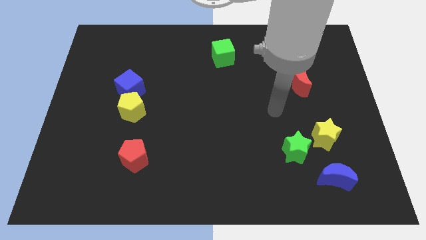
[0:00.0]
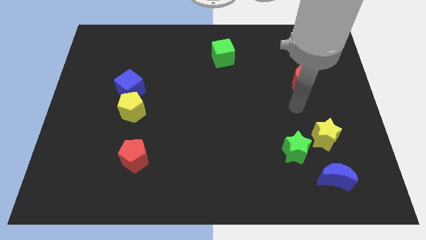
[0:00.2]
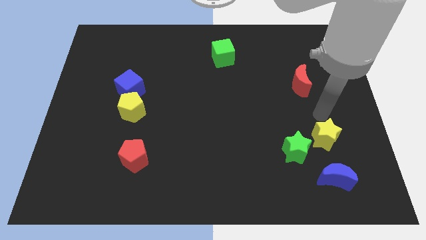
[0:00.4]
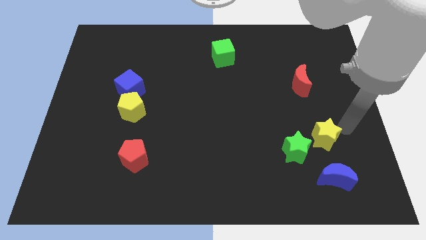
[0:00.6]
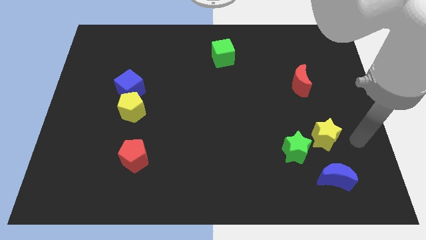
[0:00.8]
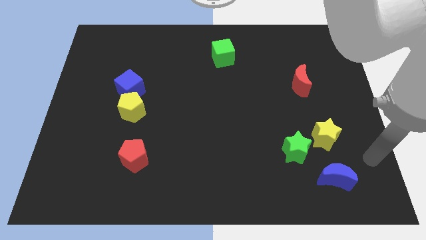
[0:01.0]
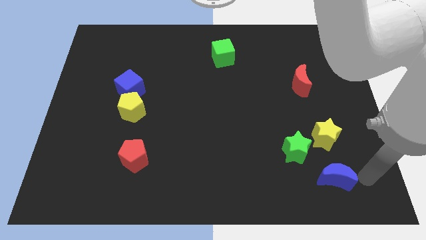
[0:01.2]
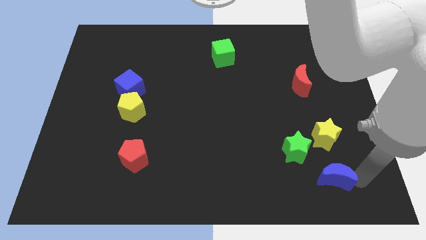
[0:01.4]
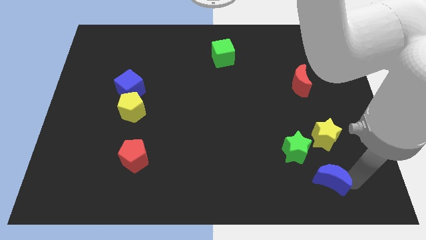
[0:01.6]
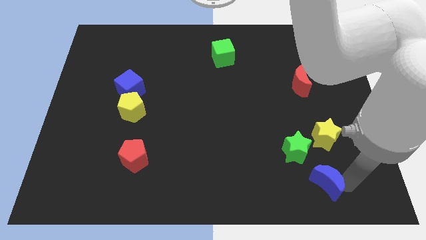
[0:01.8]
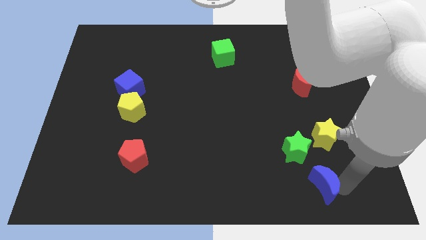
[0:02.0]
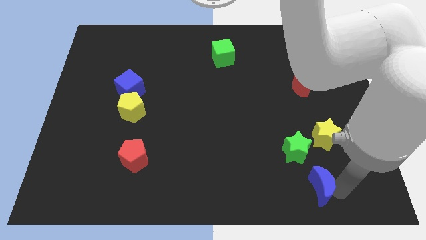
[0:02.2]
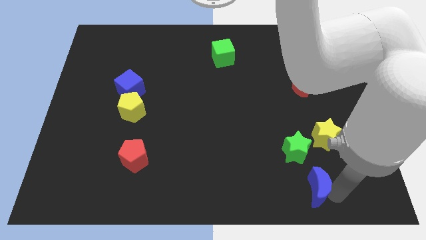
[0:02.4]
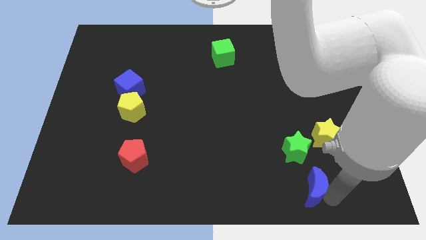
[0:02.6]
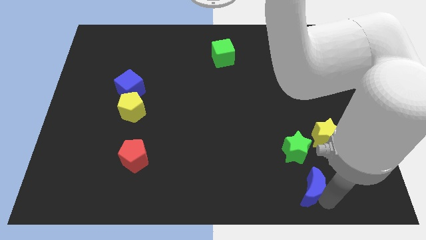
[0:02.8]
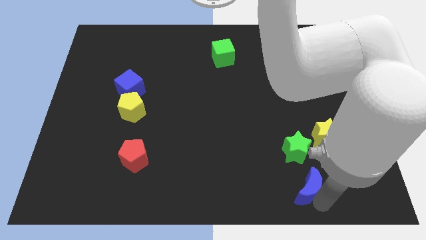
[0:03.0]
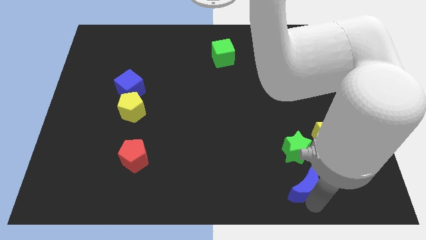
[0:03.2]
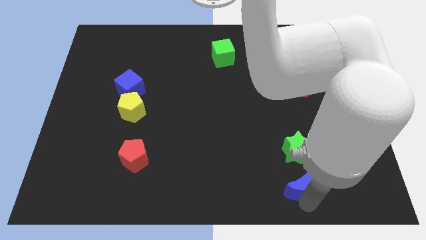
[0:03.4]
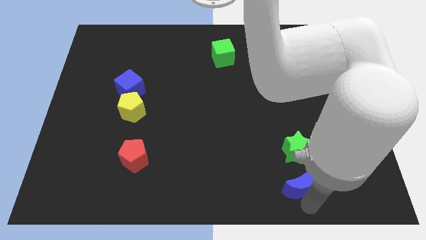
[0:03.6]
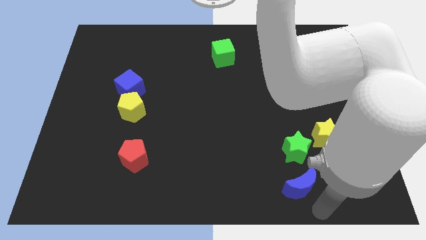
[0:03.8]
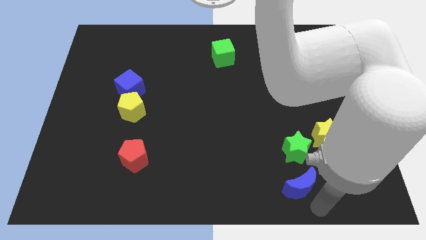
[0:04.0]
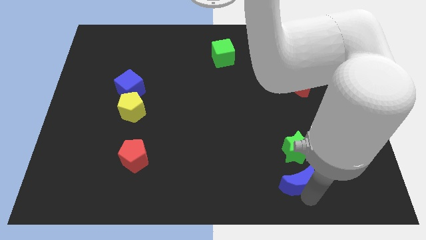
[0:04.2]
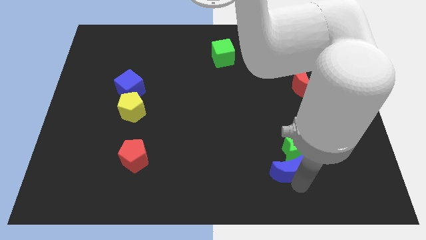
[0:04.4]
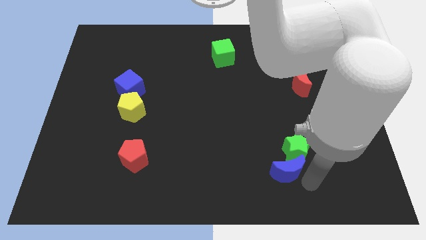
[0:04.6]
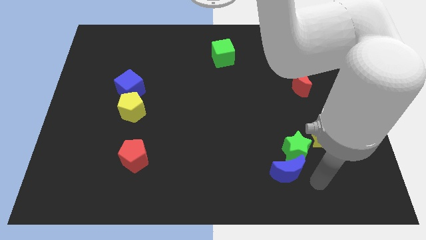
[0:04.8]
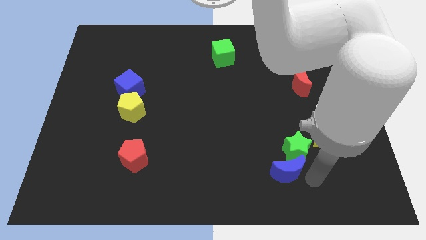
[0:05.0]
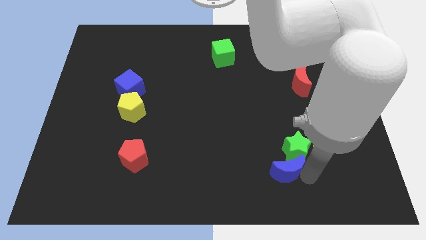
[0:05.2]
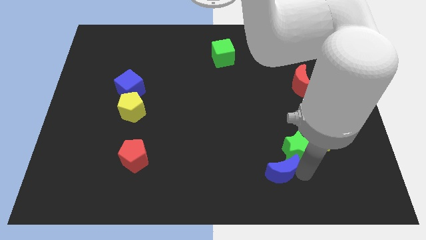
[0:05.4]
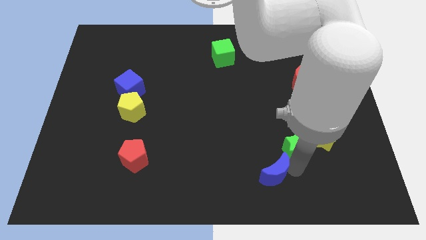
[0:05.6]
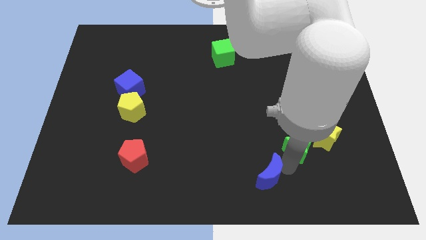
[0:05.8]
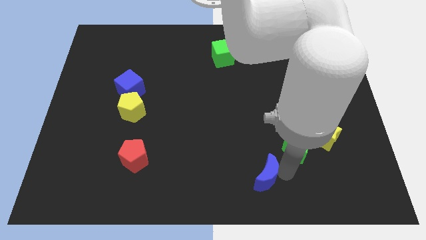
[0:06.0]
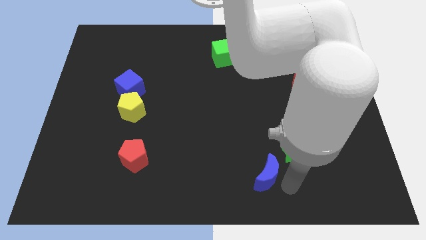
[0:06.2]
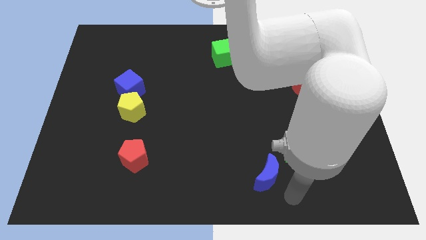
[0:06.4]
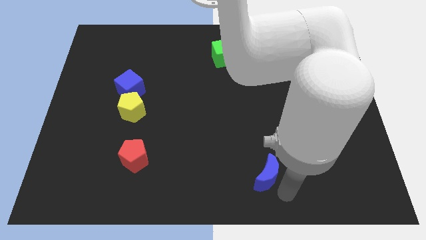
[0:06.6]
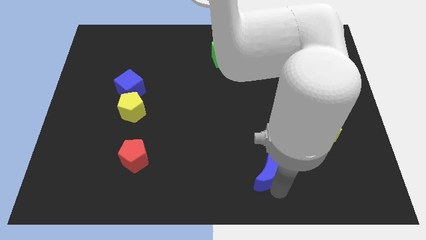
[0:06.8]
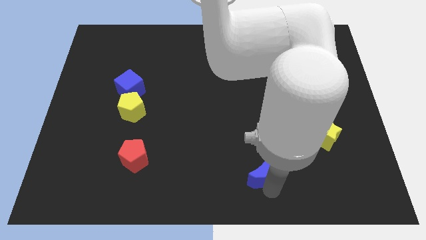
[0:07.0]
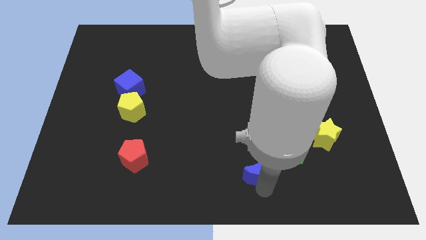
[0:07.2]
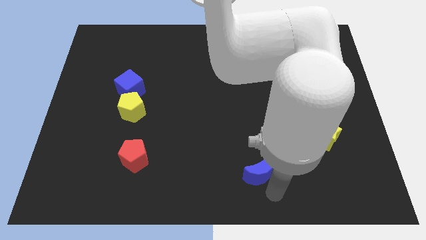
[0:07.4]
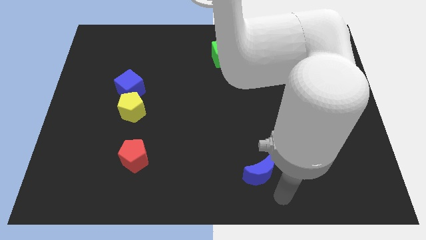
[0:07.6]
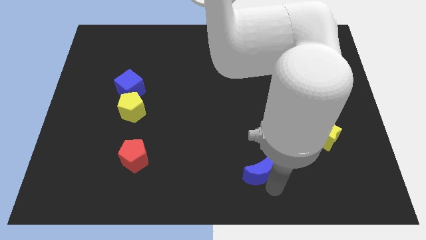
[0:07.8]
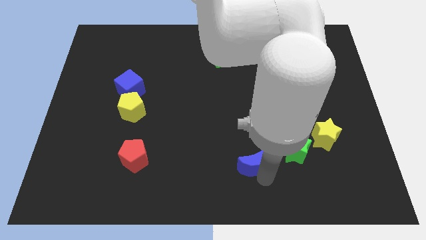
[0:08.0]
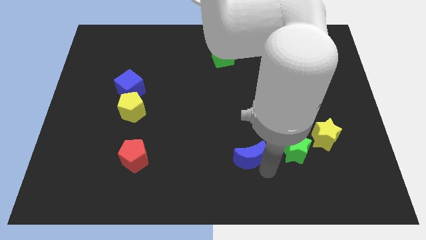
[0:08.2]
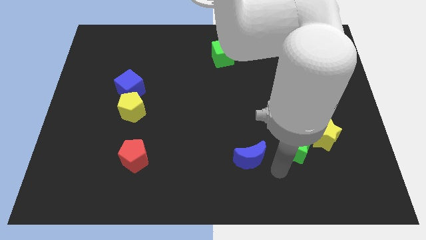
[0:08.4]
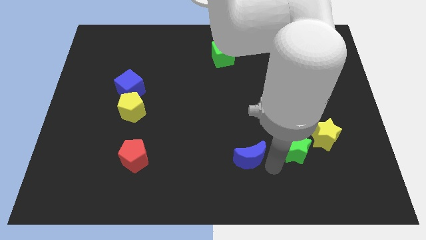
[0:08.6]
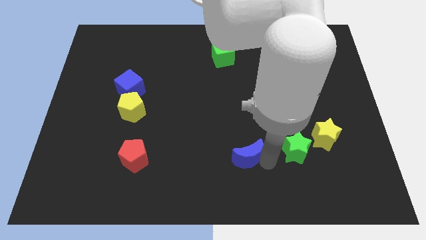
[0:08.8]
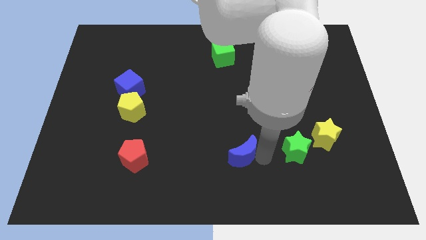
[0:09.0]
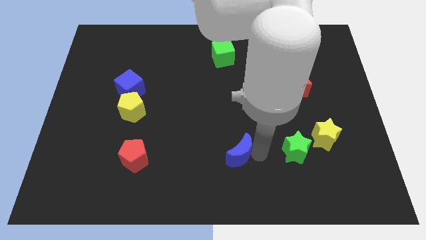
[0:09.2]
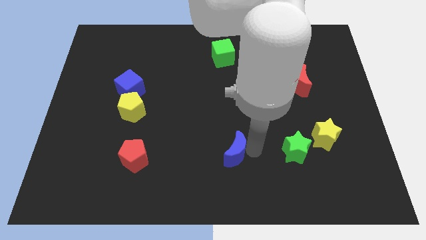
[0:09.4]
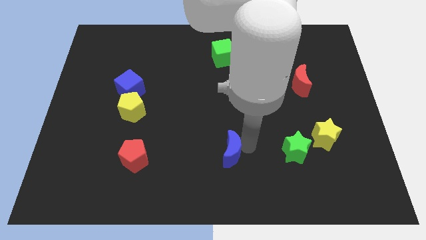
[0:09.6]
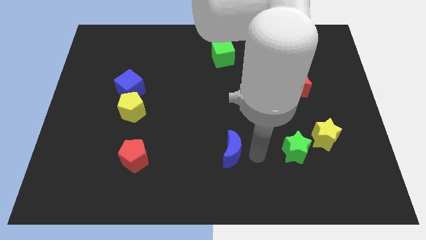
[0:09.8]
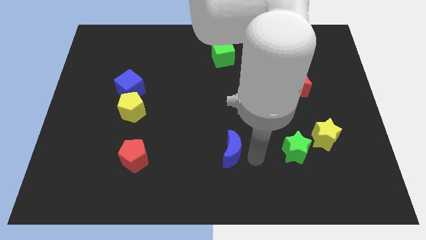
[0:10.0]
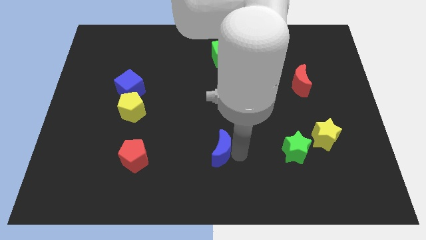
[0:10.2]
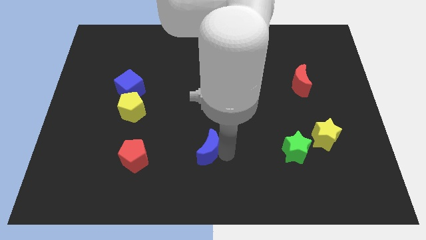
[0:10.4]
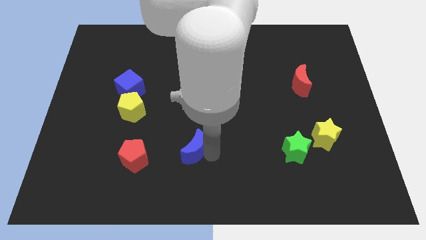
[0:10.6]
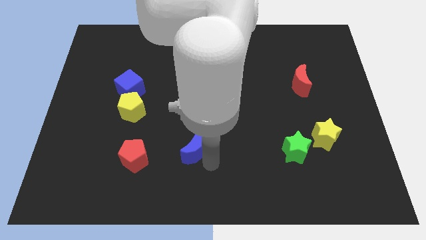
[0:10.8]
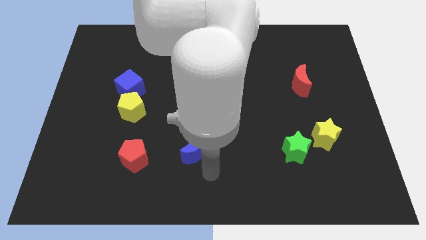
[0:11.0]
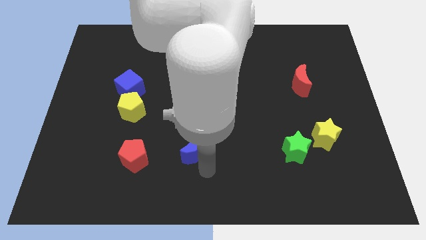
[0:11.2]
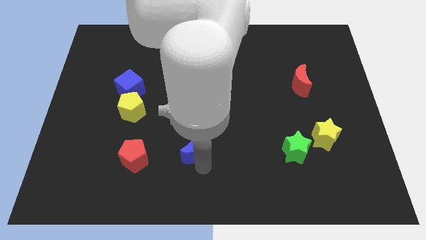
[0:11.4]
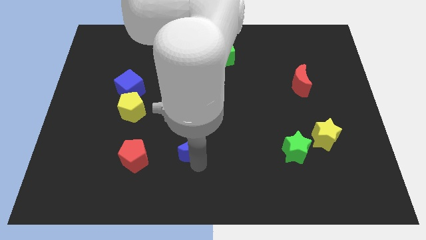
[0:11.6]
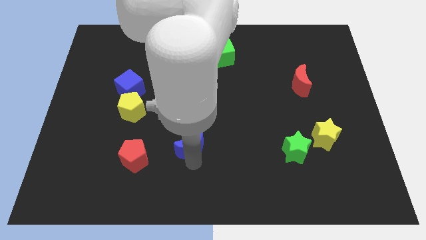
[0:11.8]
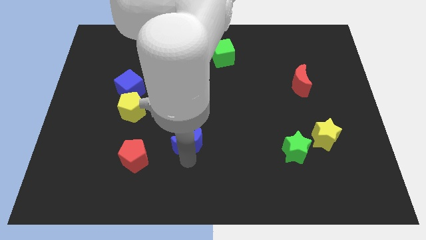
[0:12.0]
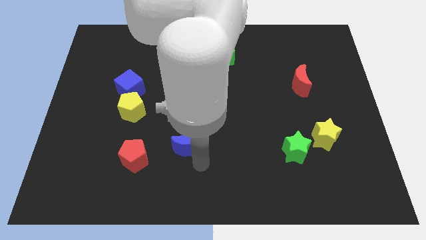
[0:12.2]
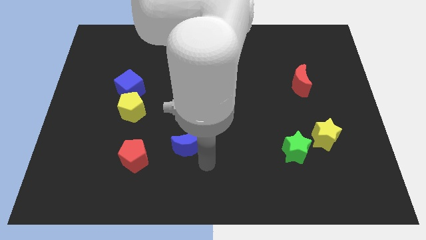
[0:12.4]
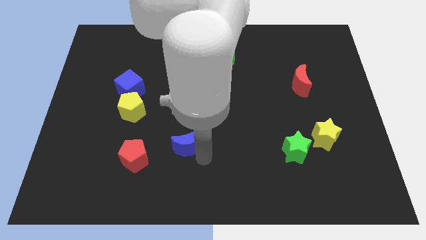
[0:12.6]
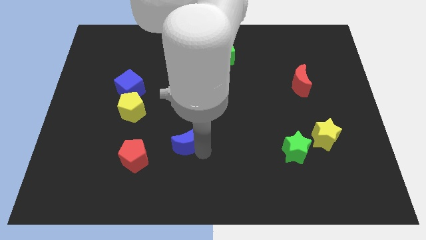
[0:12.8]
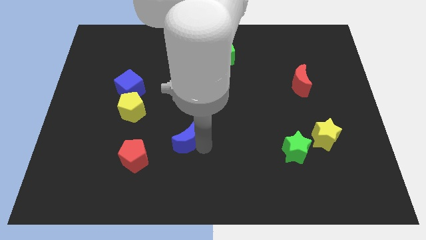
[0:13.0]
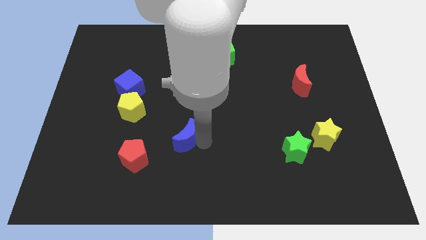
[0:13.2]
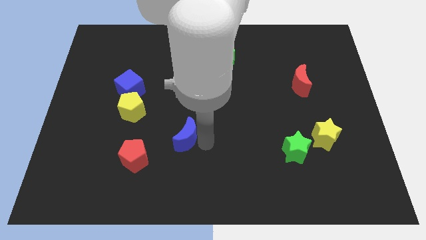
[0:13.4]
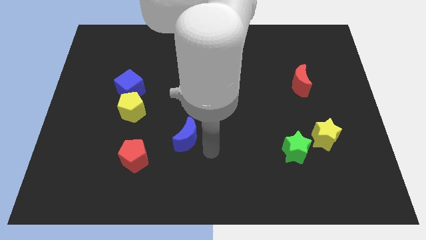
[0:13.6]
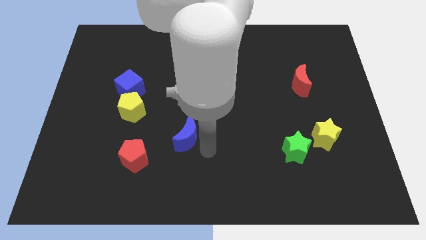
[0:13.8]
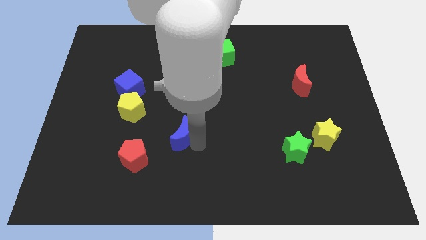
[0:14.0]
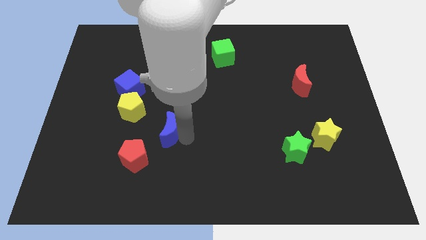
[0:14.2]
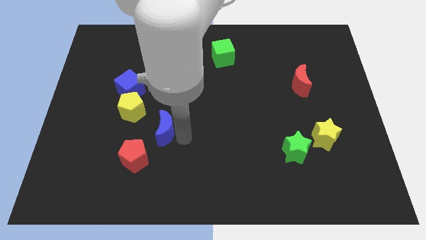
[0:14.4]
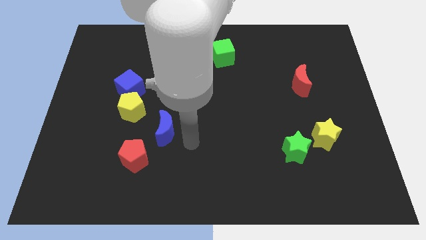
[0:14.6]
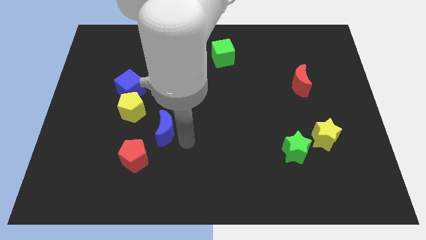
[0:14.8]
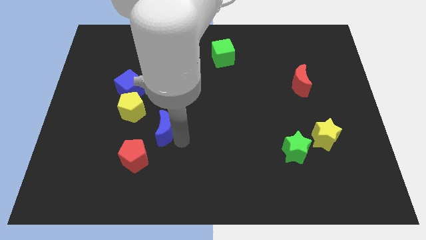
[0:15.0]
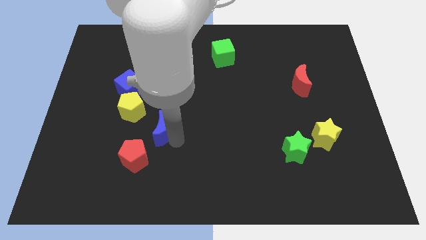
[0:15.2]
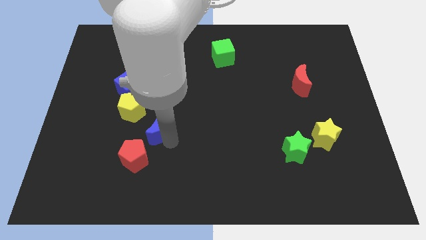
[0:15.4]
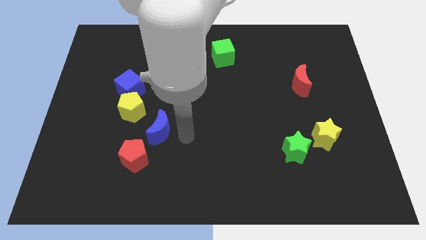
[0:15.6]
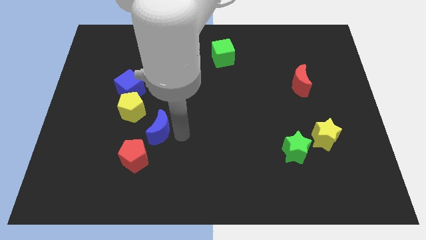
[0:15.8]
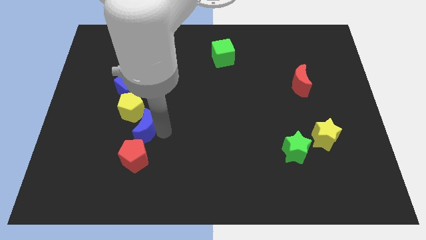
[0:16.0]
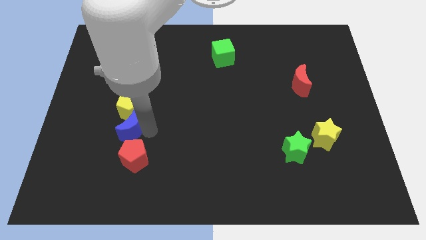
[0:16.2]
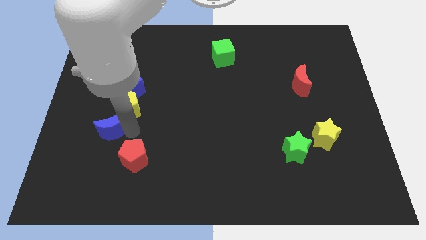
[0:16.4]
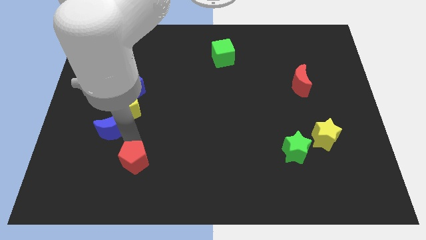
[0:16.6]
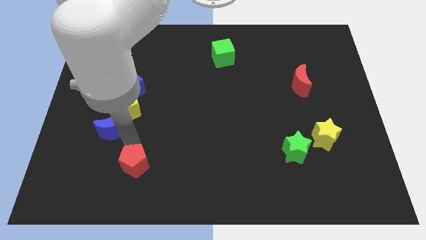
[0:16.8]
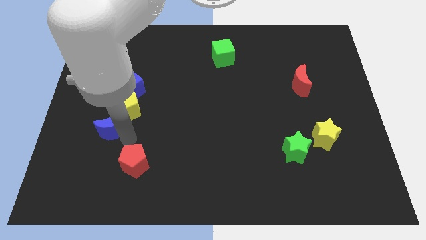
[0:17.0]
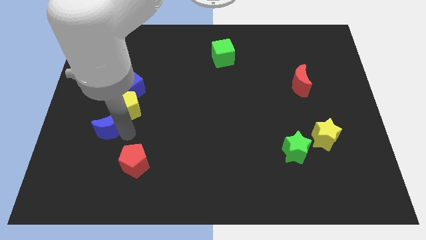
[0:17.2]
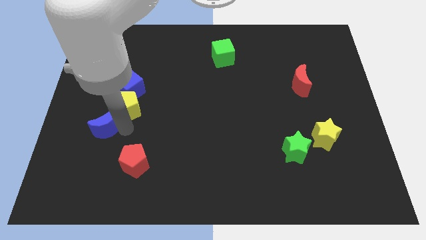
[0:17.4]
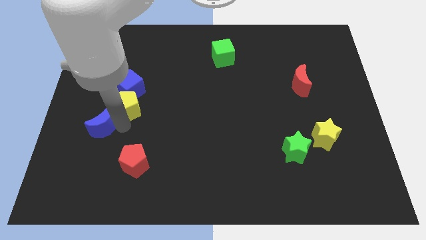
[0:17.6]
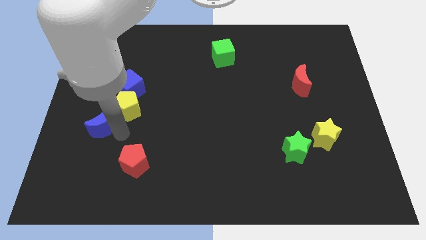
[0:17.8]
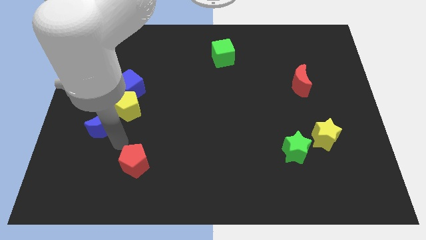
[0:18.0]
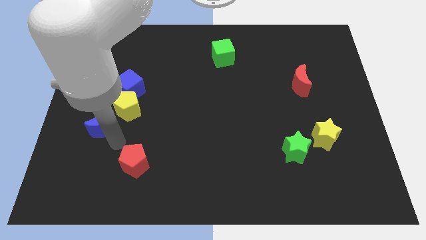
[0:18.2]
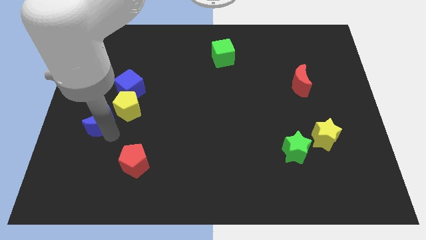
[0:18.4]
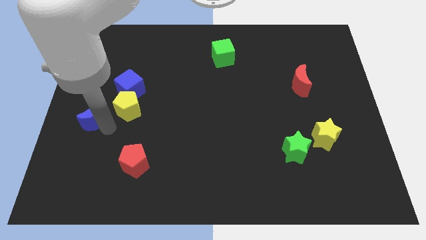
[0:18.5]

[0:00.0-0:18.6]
put the blue moon to the center left
